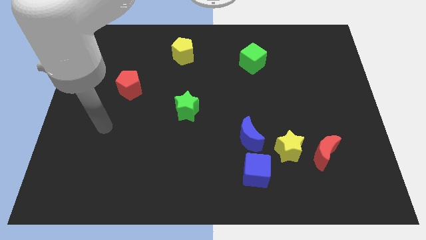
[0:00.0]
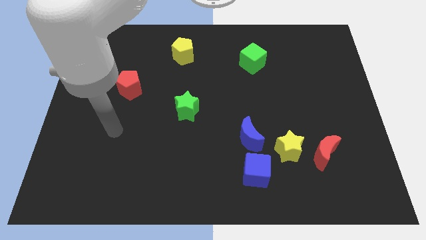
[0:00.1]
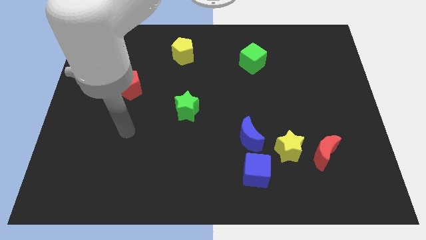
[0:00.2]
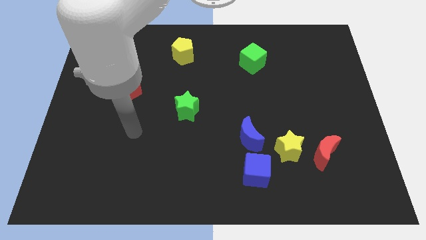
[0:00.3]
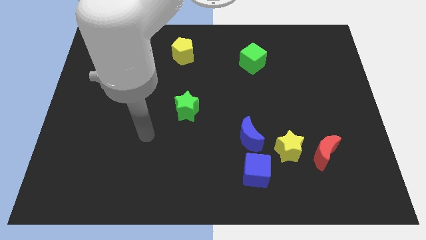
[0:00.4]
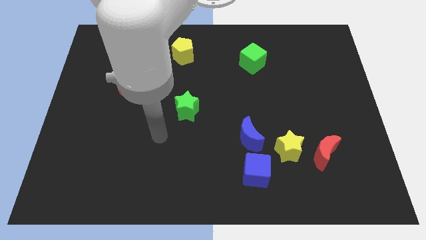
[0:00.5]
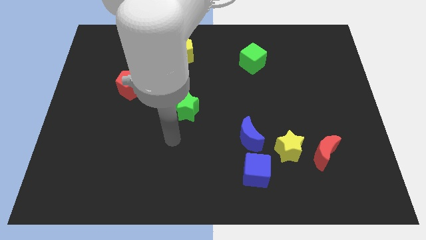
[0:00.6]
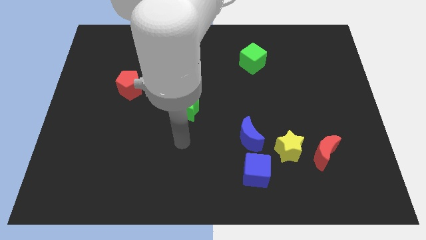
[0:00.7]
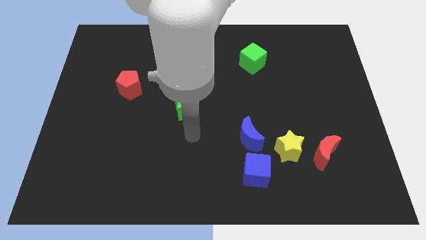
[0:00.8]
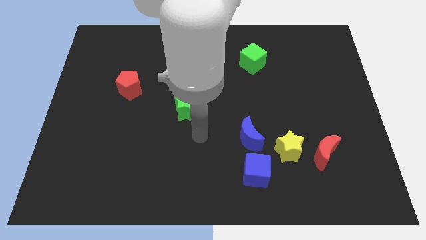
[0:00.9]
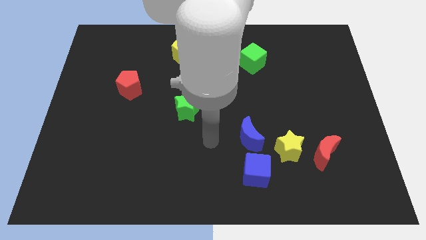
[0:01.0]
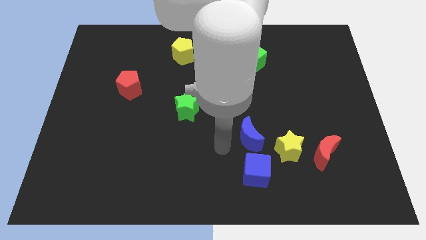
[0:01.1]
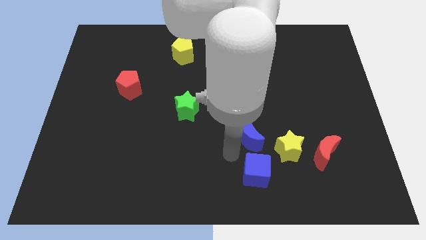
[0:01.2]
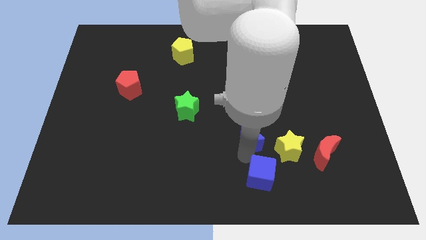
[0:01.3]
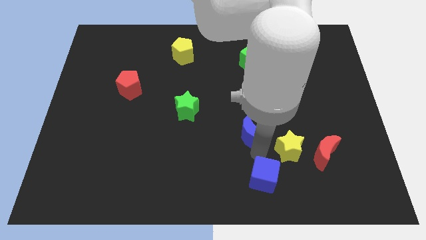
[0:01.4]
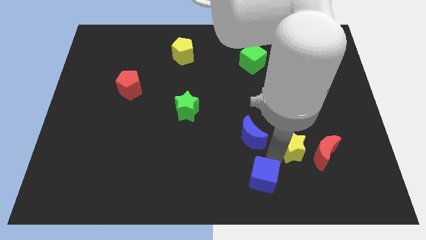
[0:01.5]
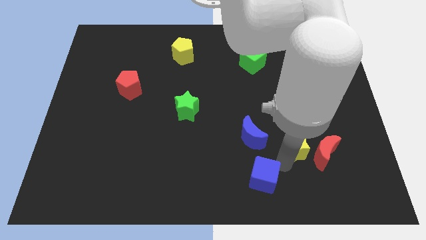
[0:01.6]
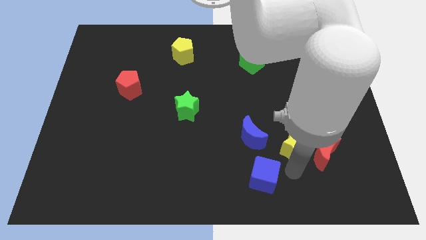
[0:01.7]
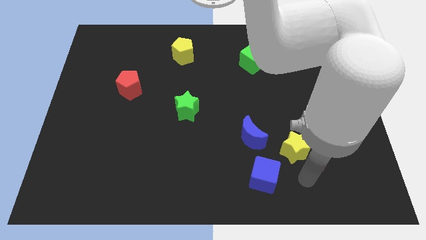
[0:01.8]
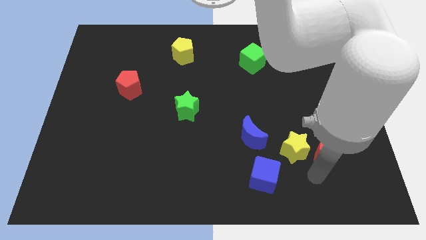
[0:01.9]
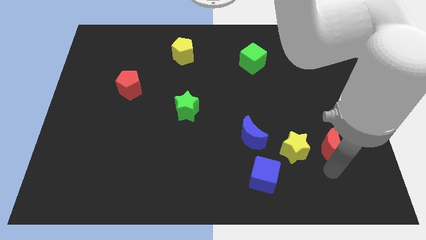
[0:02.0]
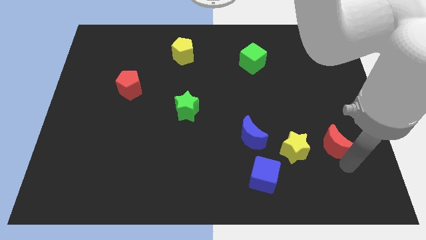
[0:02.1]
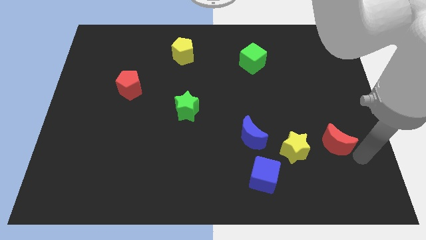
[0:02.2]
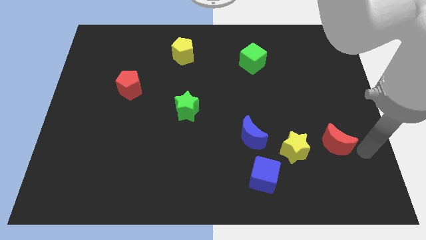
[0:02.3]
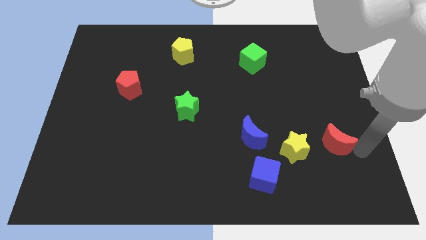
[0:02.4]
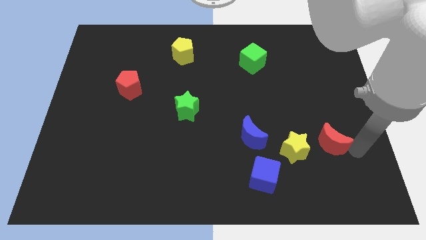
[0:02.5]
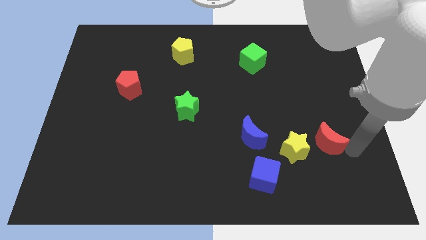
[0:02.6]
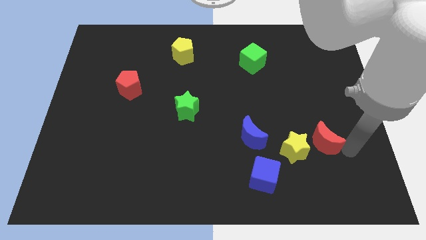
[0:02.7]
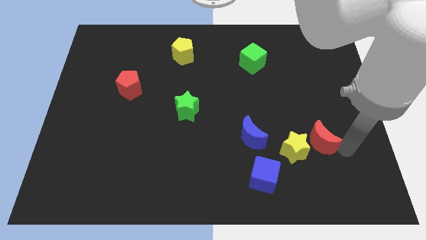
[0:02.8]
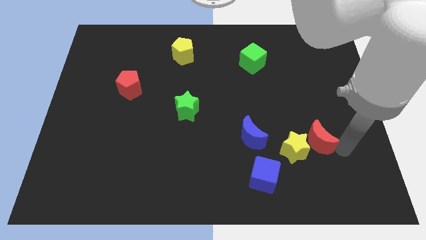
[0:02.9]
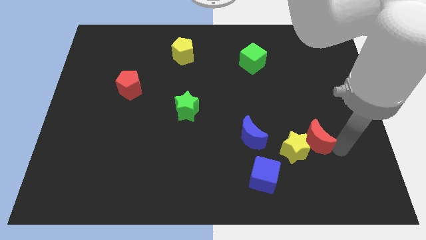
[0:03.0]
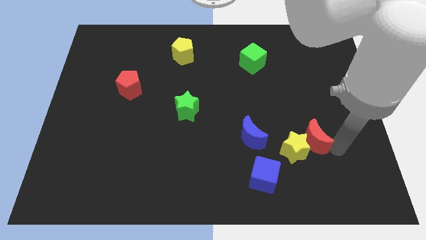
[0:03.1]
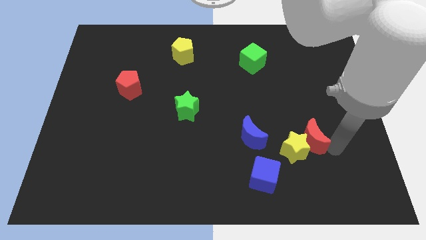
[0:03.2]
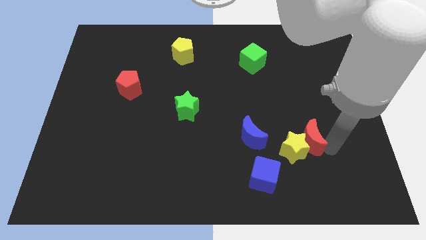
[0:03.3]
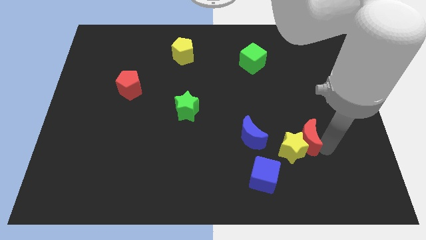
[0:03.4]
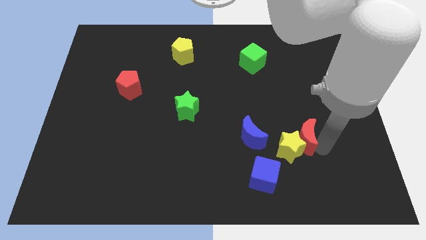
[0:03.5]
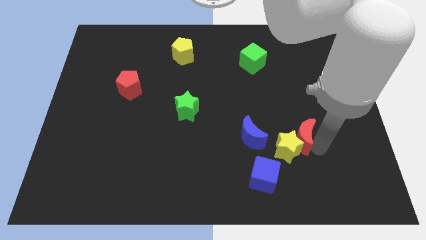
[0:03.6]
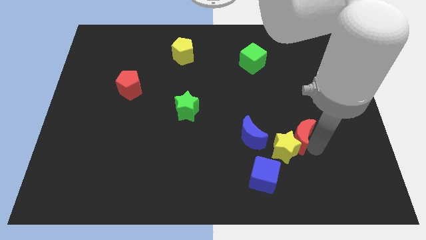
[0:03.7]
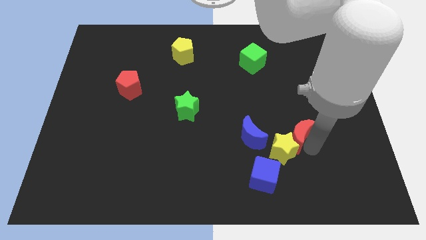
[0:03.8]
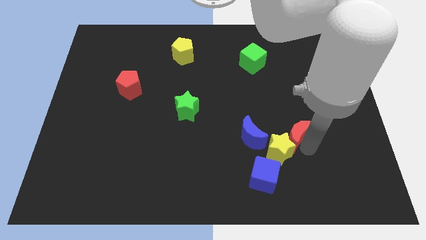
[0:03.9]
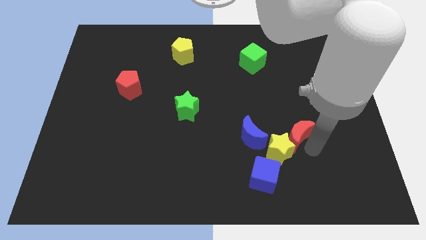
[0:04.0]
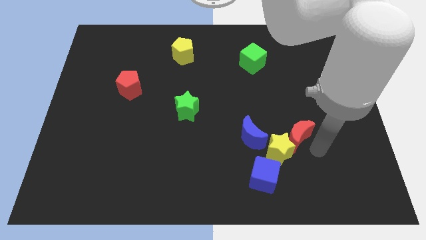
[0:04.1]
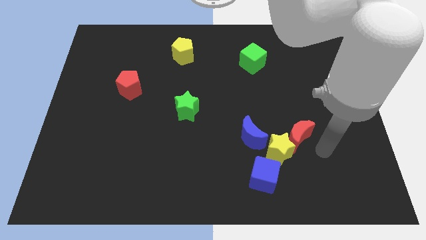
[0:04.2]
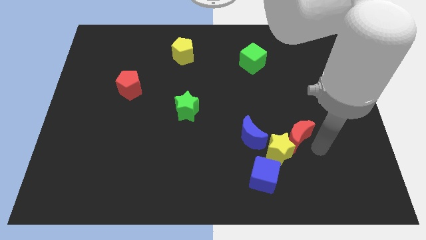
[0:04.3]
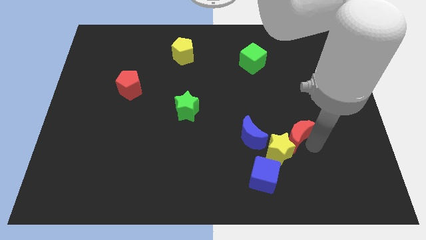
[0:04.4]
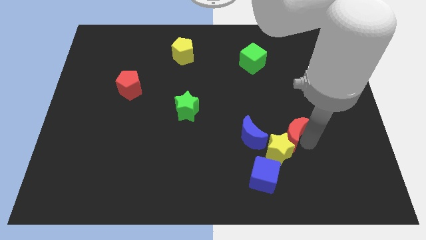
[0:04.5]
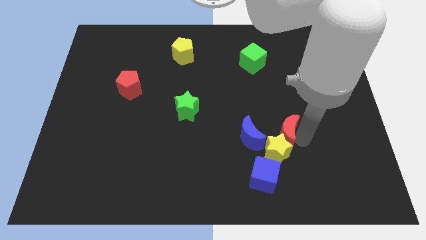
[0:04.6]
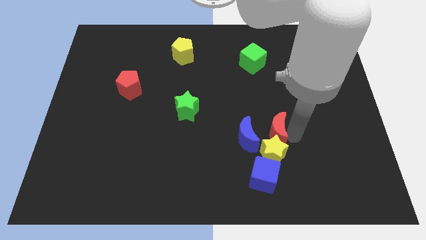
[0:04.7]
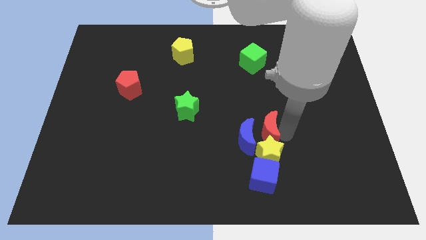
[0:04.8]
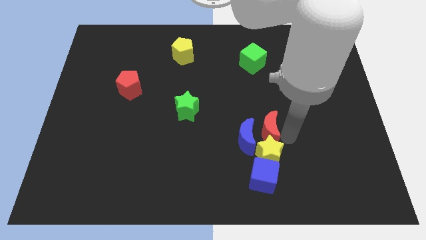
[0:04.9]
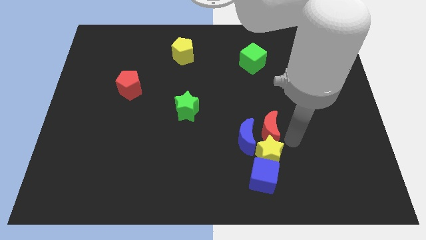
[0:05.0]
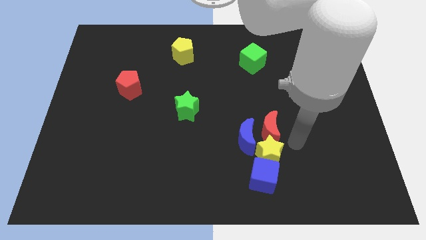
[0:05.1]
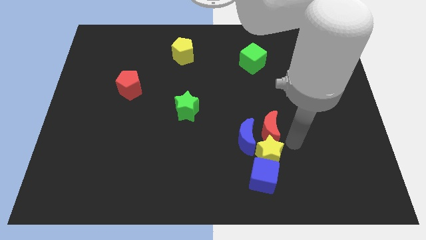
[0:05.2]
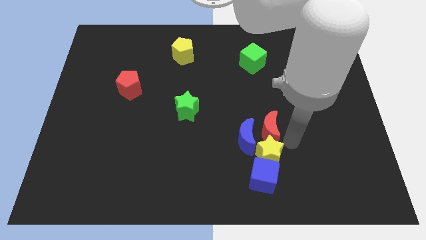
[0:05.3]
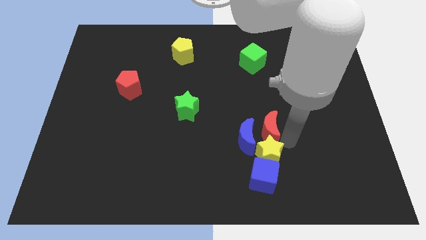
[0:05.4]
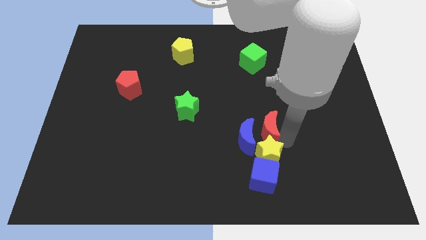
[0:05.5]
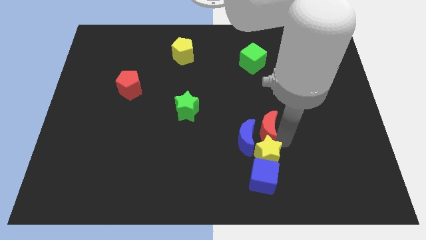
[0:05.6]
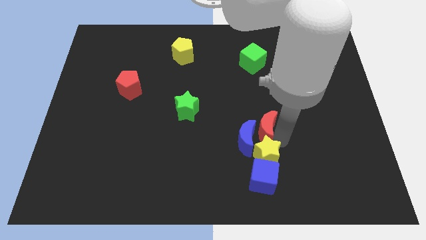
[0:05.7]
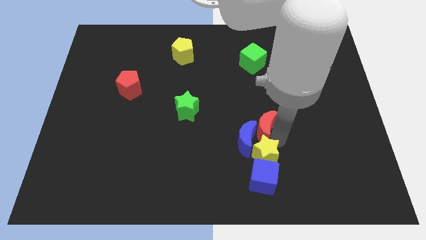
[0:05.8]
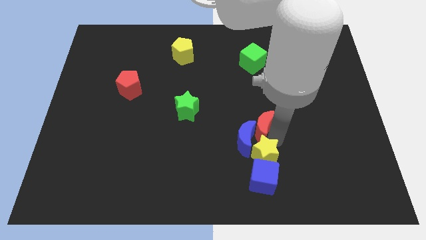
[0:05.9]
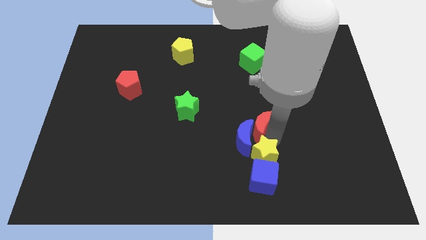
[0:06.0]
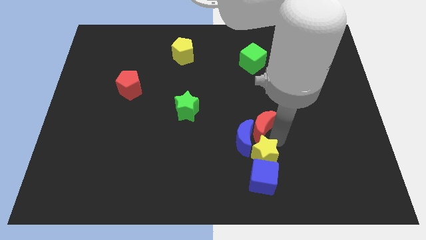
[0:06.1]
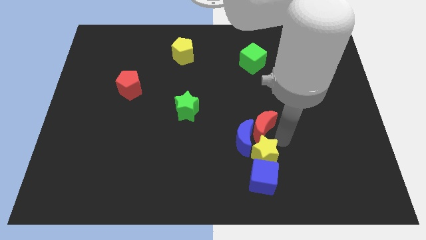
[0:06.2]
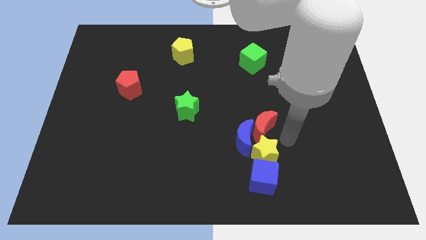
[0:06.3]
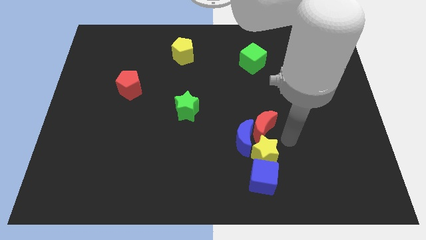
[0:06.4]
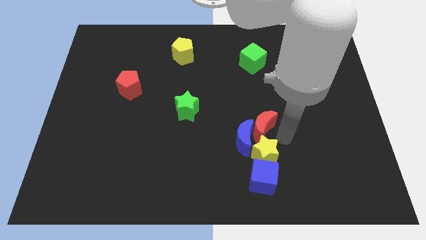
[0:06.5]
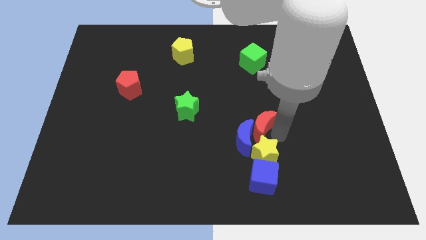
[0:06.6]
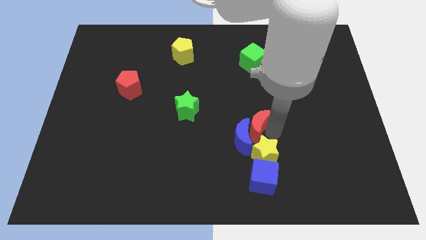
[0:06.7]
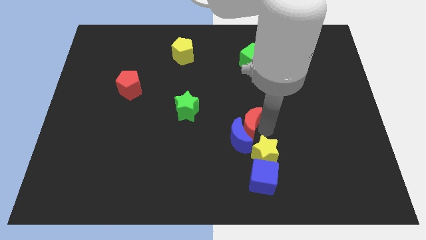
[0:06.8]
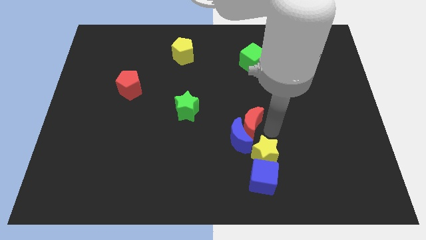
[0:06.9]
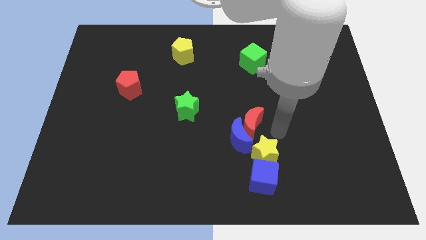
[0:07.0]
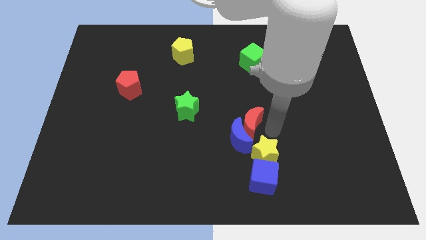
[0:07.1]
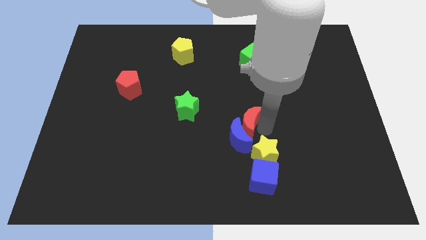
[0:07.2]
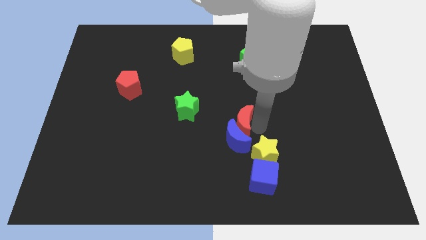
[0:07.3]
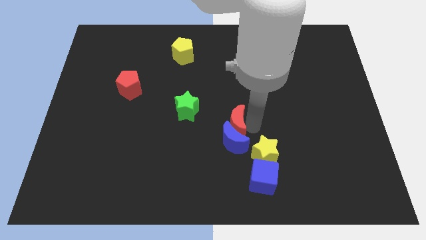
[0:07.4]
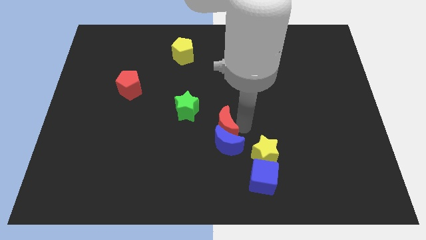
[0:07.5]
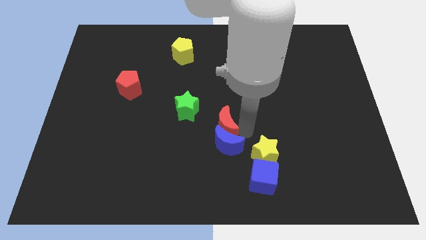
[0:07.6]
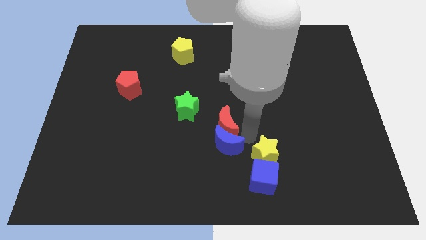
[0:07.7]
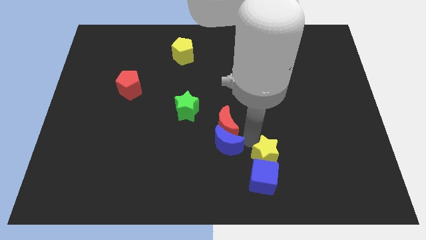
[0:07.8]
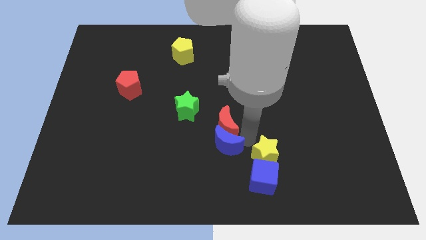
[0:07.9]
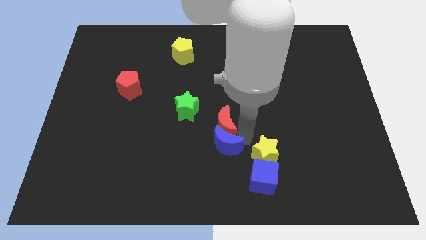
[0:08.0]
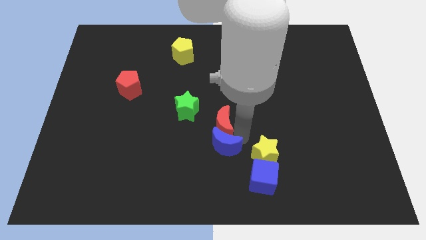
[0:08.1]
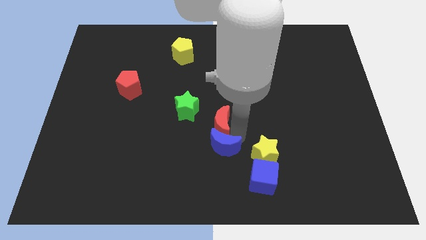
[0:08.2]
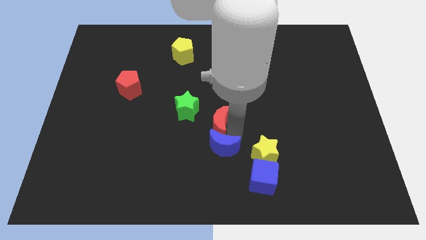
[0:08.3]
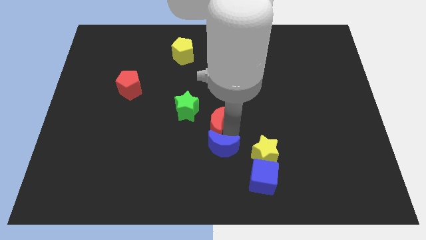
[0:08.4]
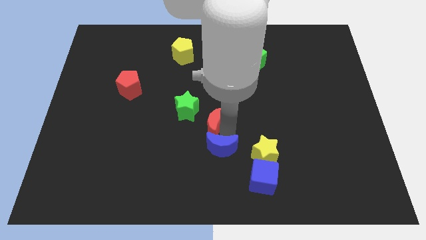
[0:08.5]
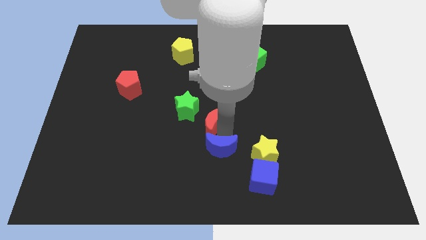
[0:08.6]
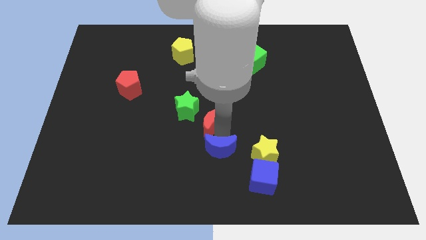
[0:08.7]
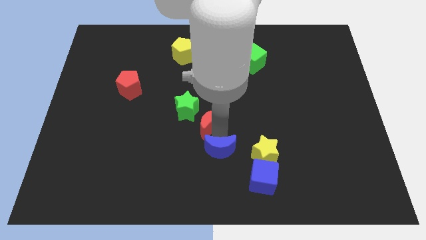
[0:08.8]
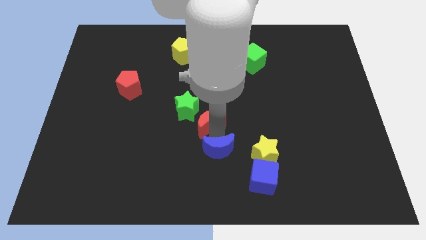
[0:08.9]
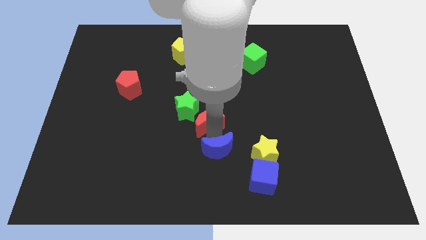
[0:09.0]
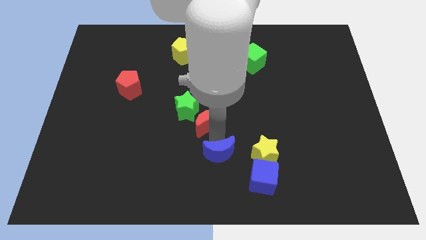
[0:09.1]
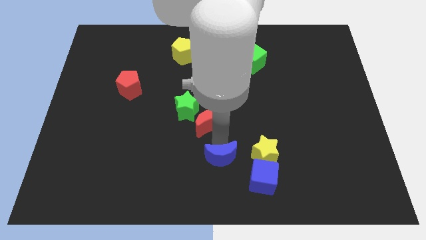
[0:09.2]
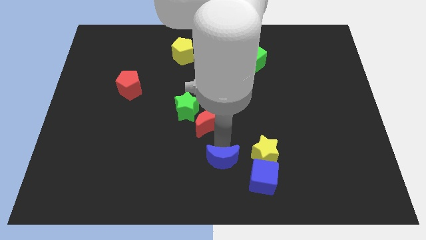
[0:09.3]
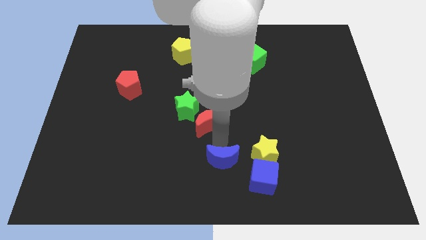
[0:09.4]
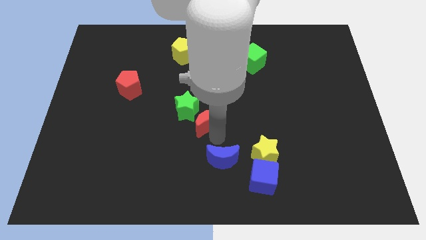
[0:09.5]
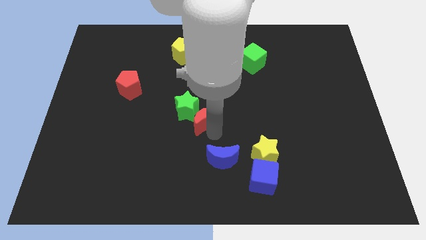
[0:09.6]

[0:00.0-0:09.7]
move the red moon towards the green star
